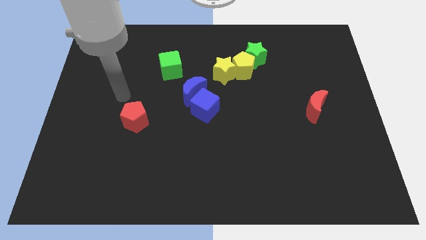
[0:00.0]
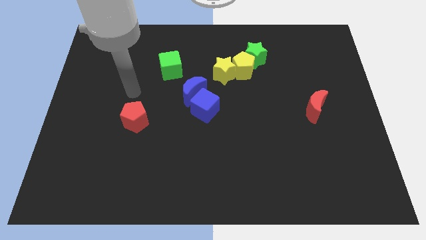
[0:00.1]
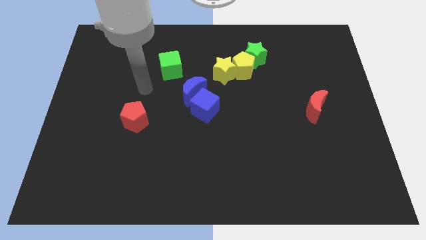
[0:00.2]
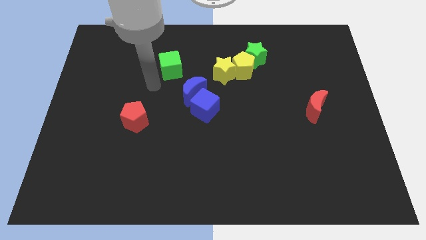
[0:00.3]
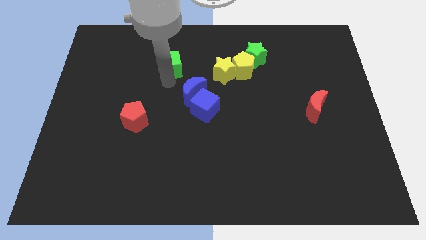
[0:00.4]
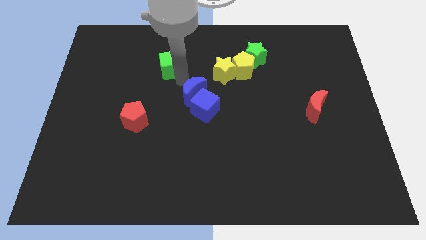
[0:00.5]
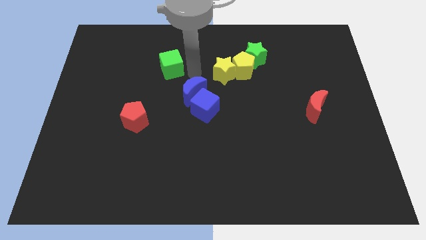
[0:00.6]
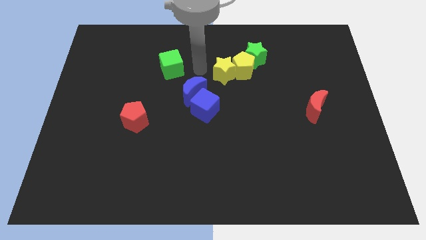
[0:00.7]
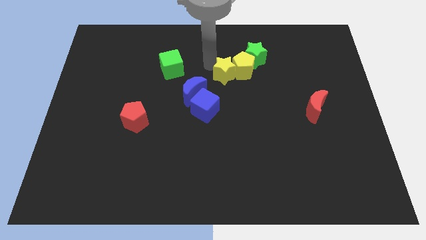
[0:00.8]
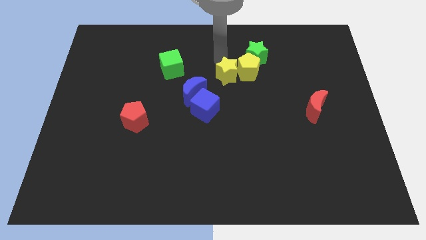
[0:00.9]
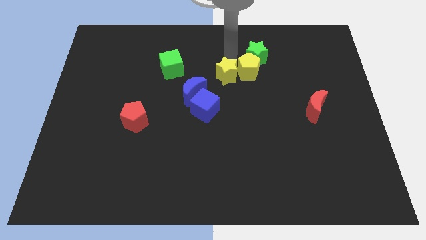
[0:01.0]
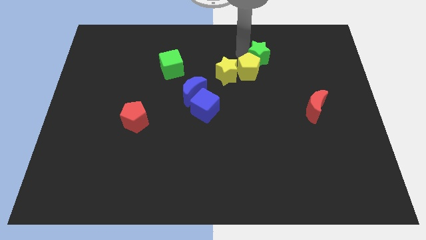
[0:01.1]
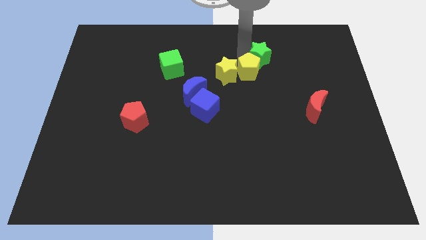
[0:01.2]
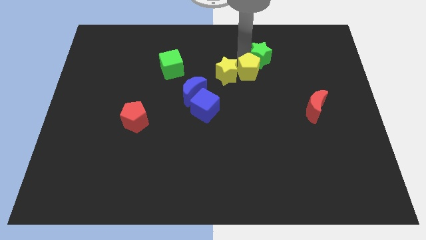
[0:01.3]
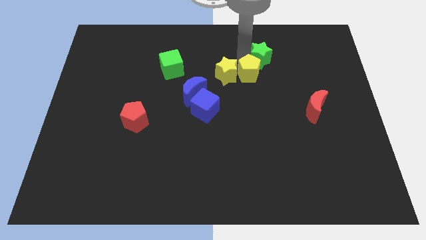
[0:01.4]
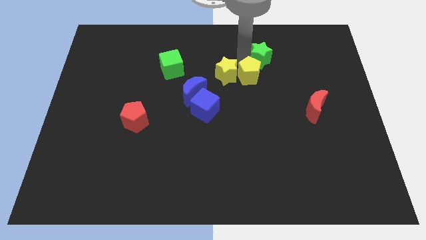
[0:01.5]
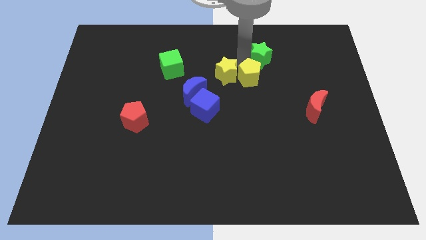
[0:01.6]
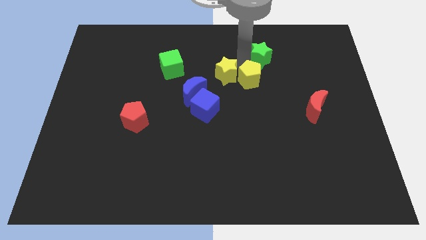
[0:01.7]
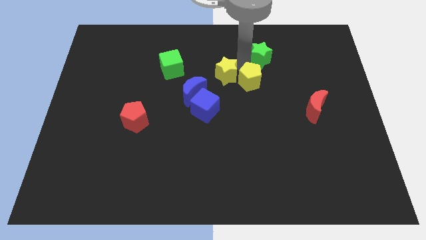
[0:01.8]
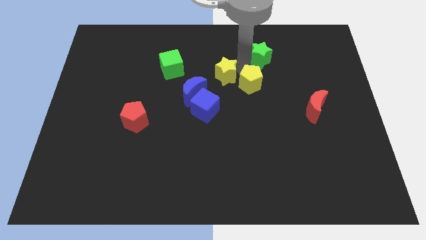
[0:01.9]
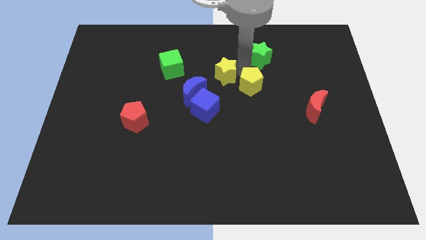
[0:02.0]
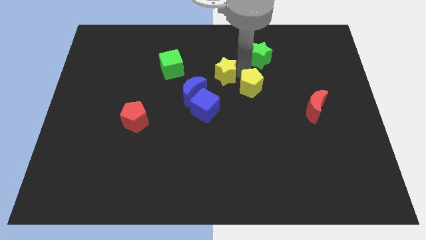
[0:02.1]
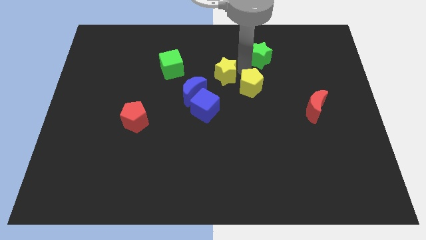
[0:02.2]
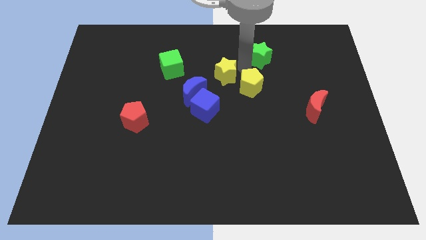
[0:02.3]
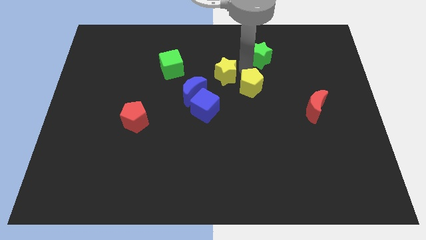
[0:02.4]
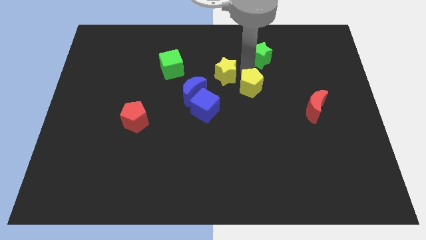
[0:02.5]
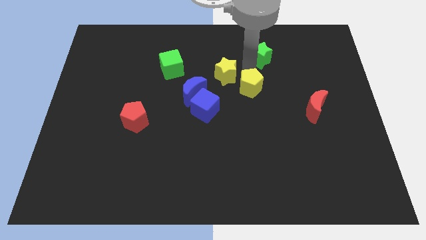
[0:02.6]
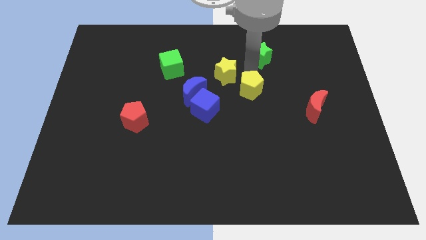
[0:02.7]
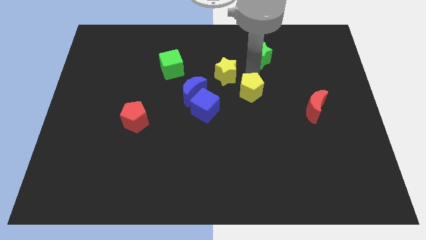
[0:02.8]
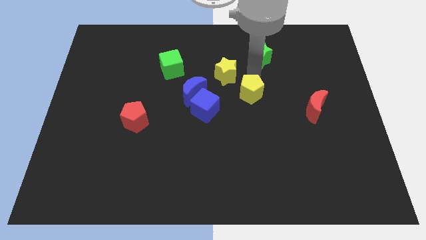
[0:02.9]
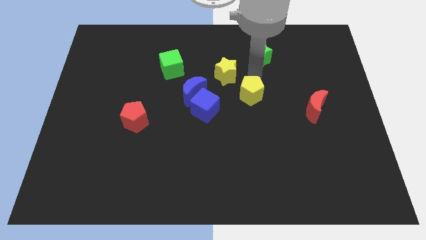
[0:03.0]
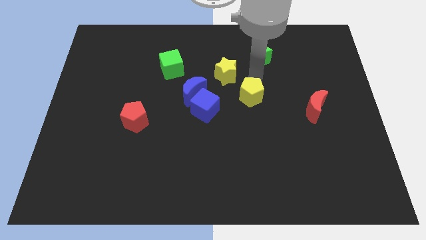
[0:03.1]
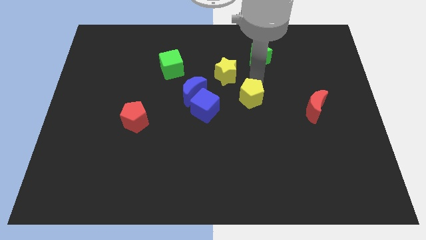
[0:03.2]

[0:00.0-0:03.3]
separate the yellow pentagon from the yellow star and green star

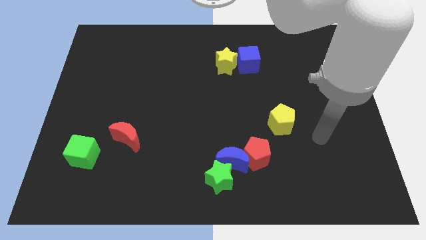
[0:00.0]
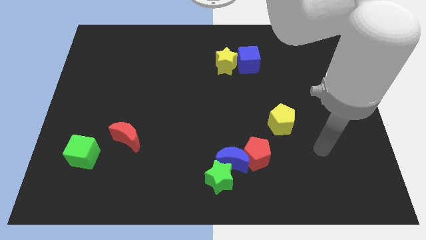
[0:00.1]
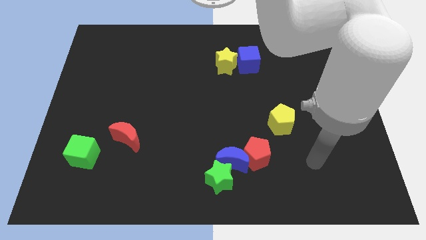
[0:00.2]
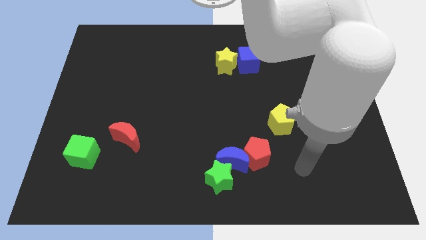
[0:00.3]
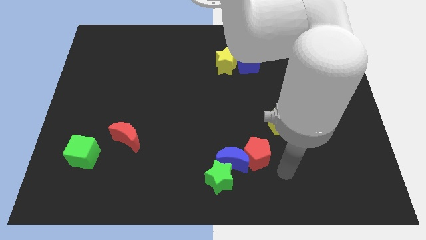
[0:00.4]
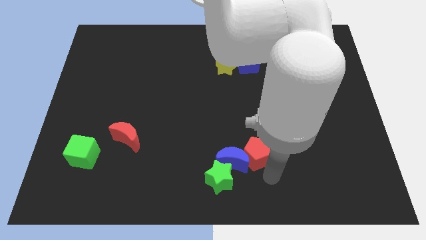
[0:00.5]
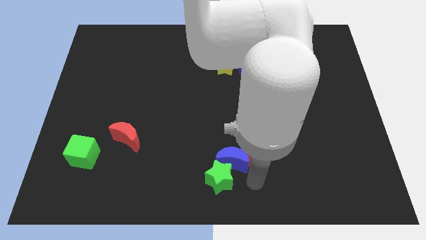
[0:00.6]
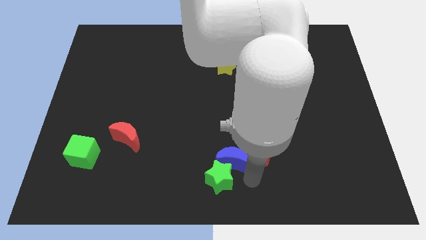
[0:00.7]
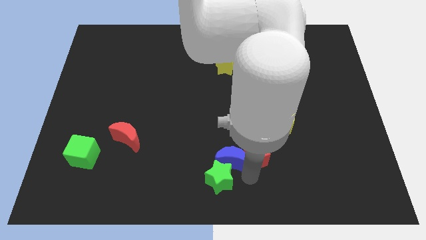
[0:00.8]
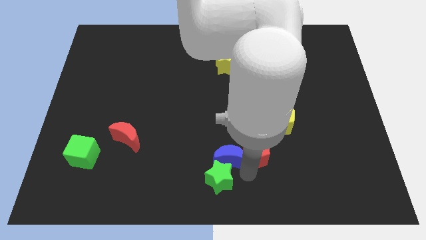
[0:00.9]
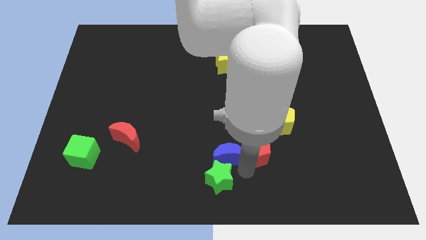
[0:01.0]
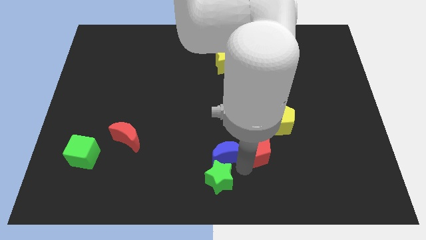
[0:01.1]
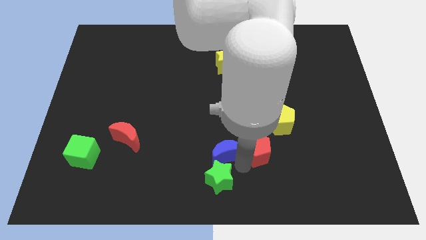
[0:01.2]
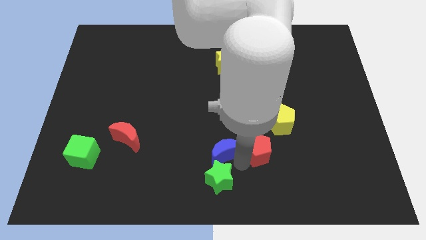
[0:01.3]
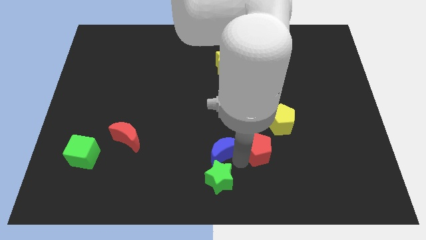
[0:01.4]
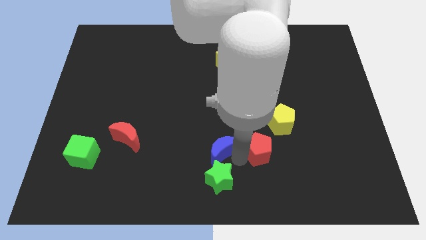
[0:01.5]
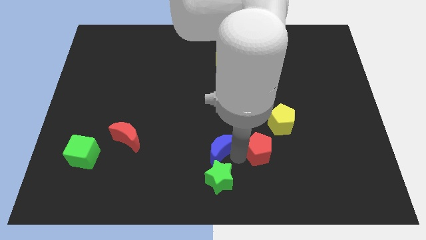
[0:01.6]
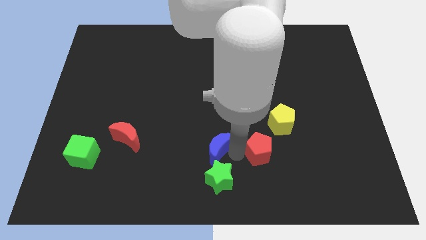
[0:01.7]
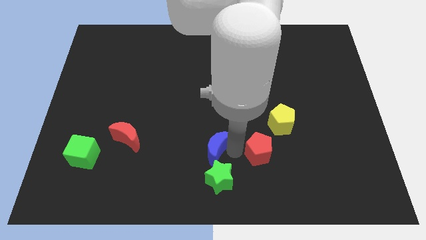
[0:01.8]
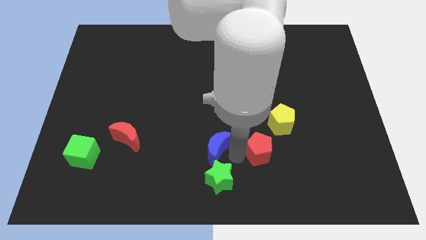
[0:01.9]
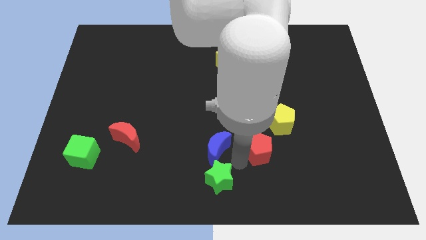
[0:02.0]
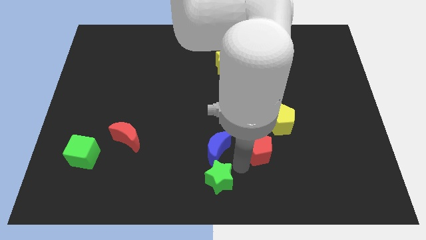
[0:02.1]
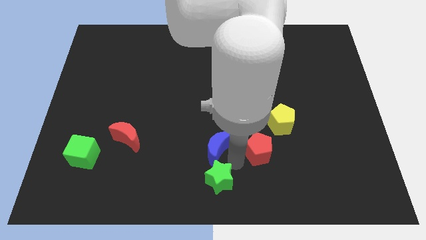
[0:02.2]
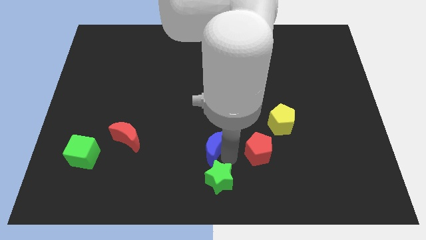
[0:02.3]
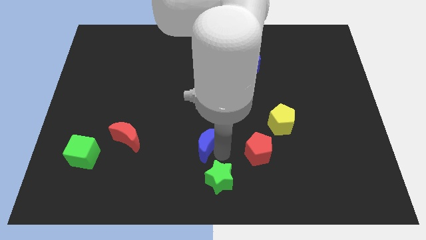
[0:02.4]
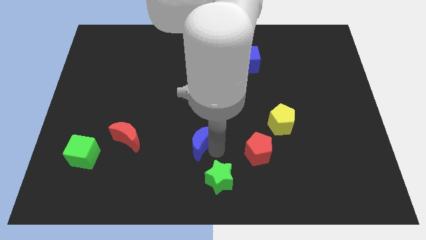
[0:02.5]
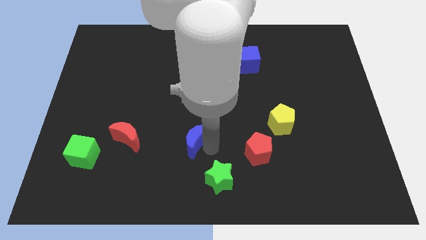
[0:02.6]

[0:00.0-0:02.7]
pull the blue moon apart from the green star and red pentagon

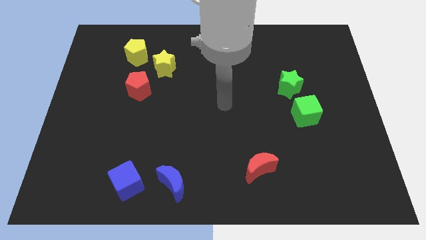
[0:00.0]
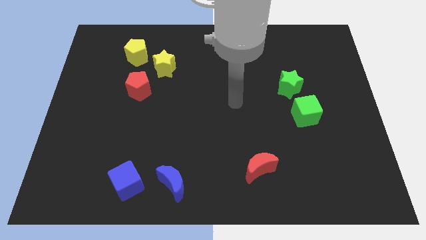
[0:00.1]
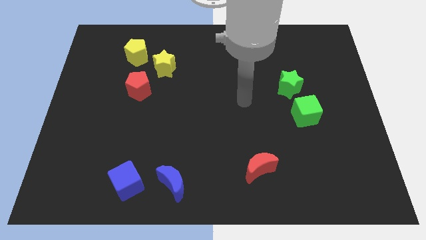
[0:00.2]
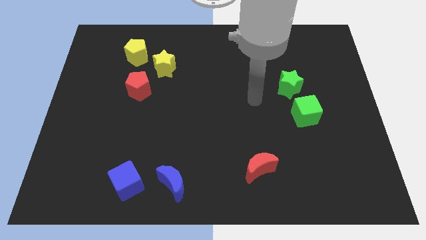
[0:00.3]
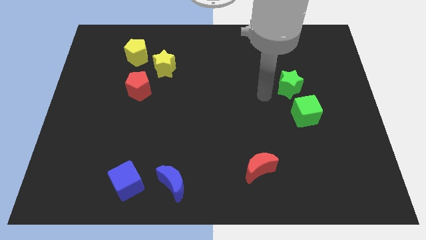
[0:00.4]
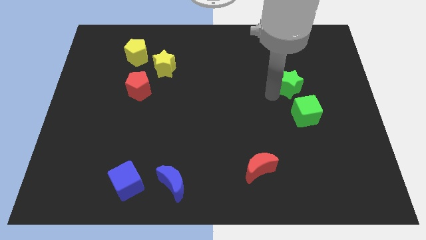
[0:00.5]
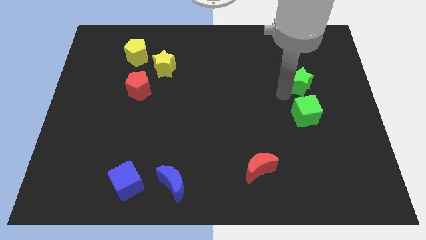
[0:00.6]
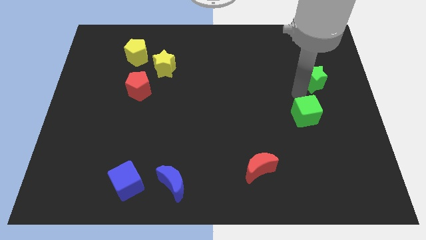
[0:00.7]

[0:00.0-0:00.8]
pull the green cube apart from the green star

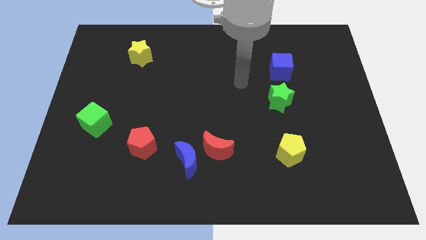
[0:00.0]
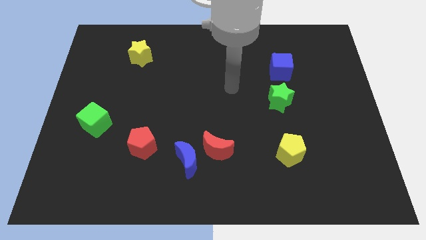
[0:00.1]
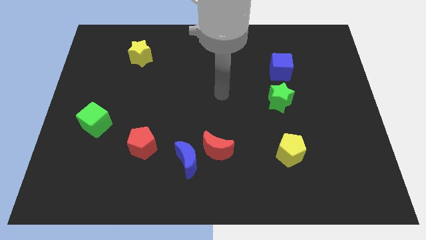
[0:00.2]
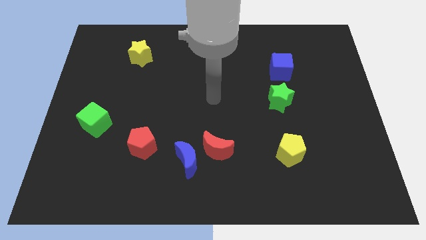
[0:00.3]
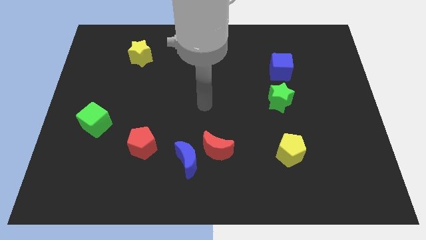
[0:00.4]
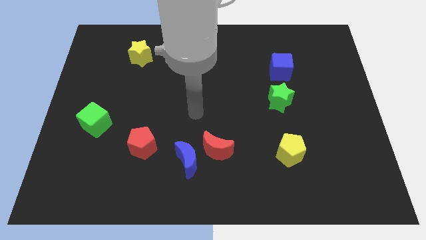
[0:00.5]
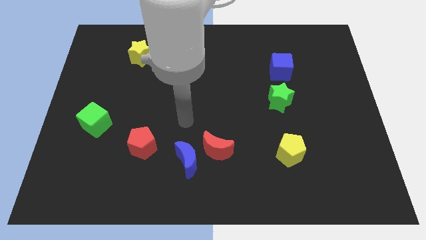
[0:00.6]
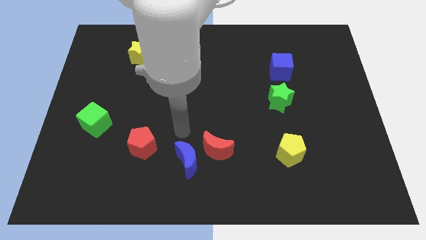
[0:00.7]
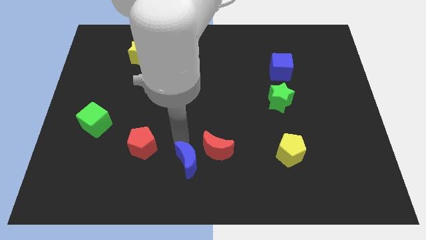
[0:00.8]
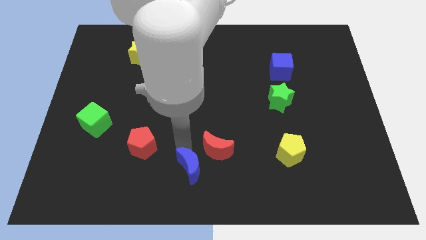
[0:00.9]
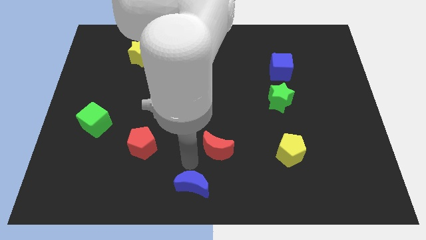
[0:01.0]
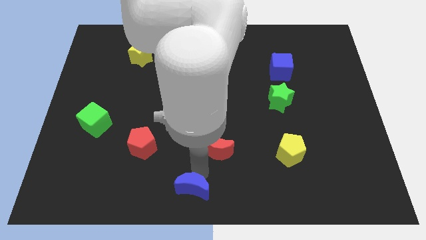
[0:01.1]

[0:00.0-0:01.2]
pull the red moon apart from the blue moon

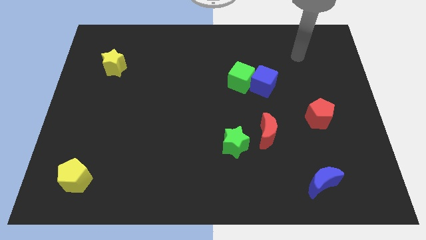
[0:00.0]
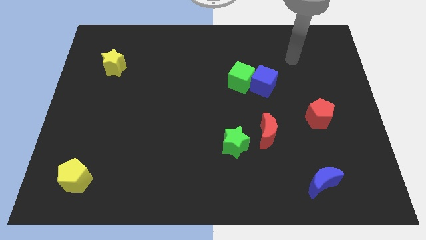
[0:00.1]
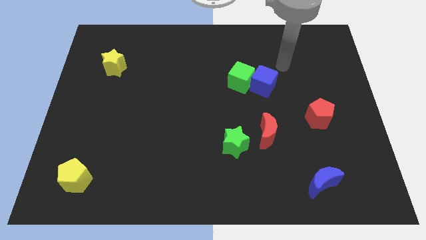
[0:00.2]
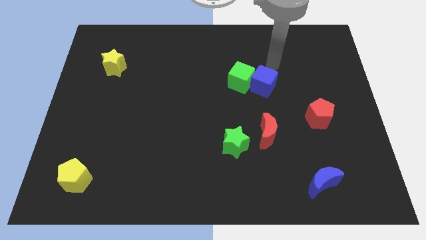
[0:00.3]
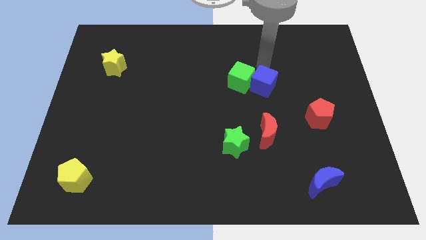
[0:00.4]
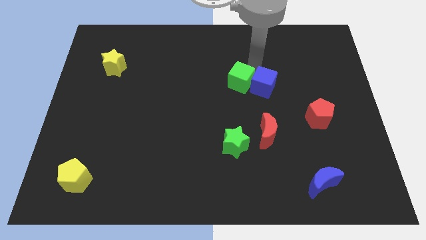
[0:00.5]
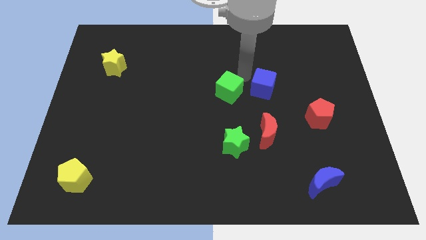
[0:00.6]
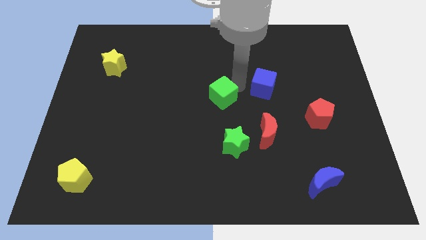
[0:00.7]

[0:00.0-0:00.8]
separate the blue cube from the green cube

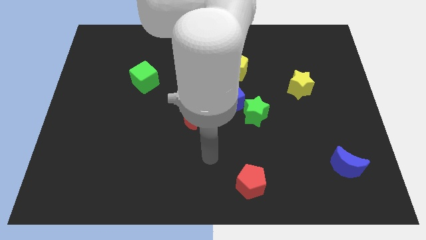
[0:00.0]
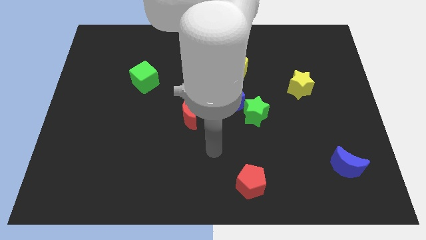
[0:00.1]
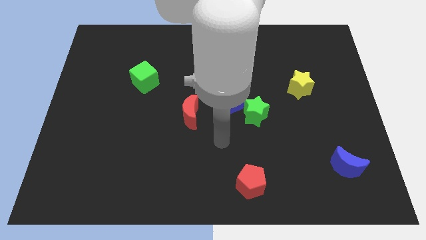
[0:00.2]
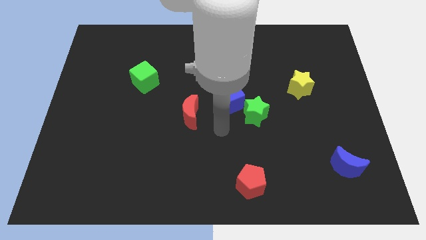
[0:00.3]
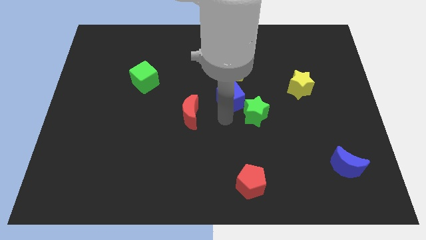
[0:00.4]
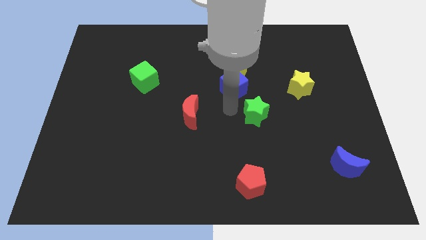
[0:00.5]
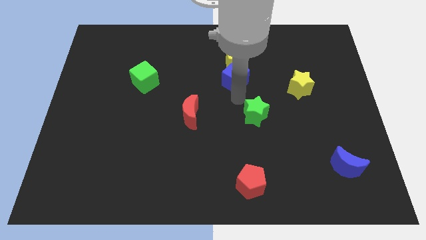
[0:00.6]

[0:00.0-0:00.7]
pull the green star apart from the blue cube
